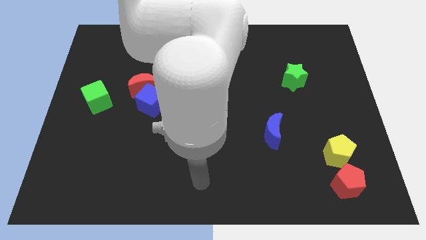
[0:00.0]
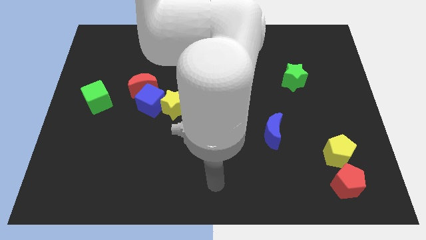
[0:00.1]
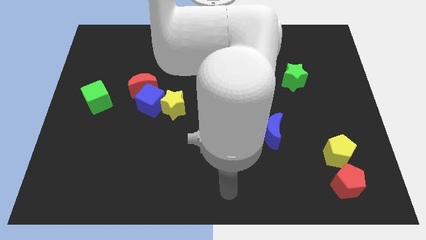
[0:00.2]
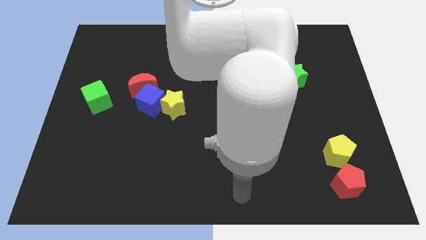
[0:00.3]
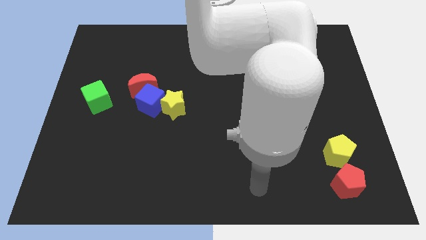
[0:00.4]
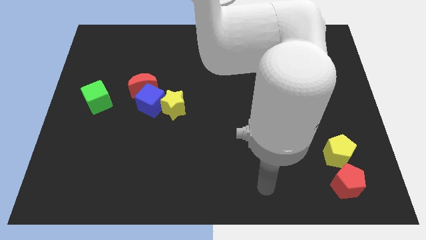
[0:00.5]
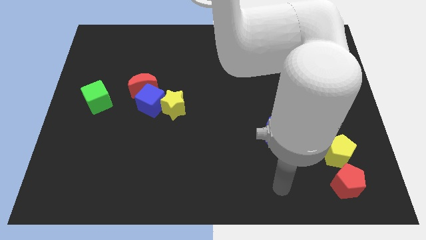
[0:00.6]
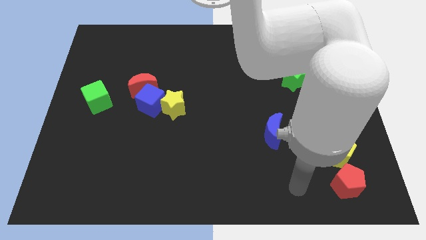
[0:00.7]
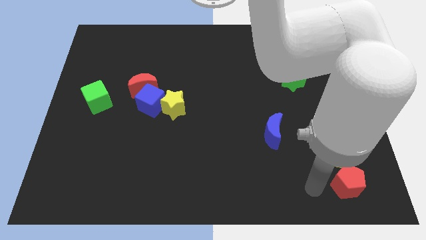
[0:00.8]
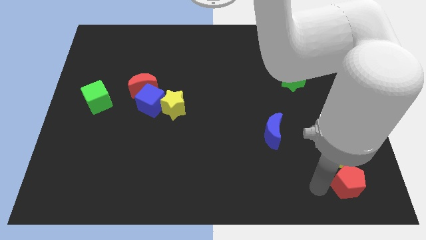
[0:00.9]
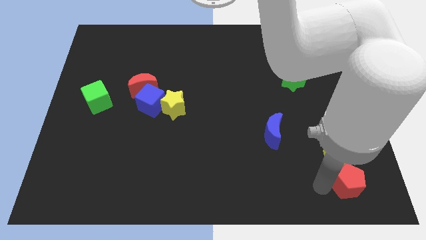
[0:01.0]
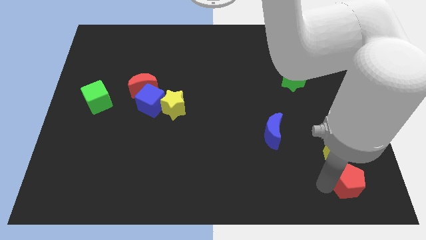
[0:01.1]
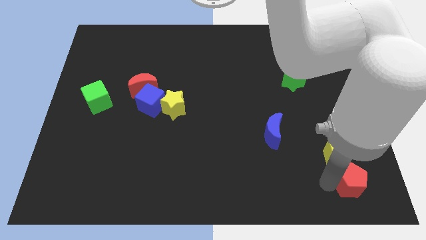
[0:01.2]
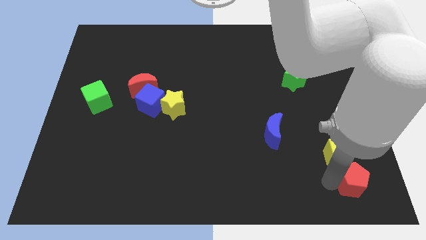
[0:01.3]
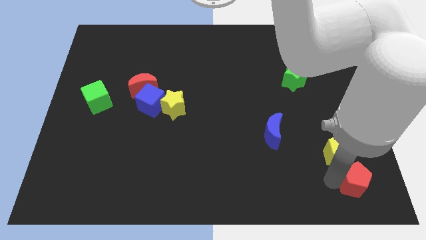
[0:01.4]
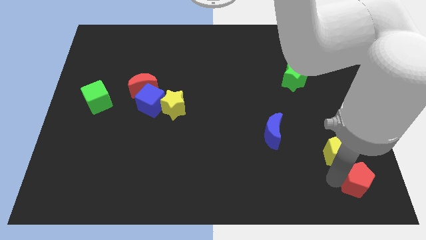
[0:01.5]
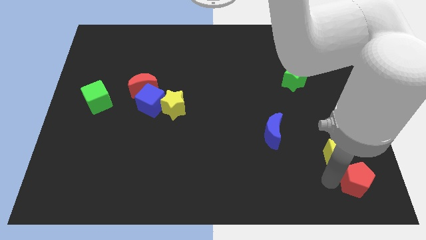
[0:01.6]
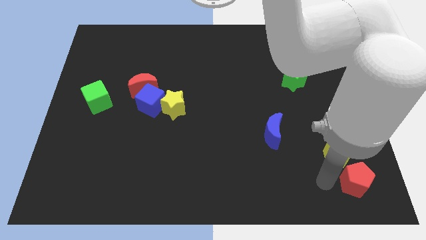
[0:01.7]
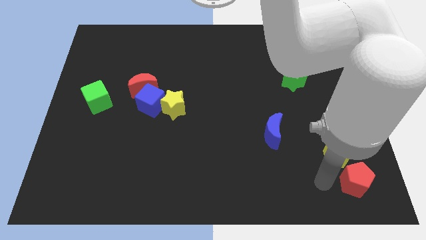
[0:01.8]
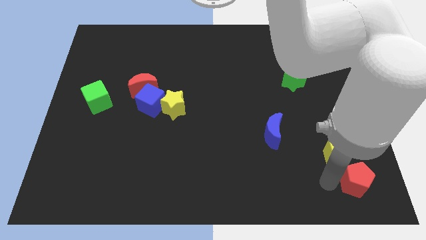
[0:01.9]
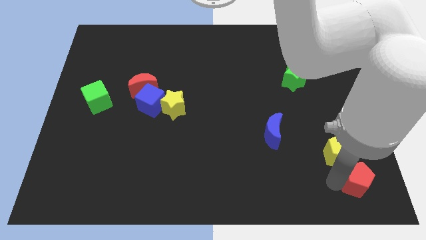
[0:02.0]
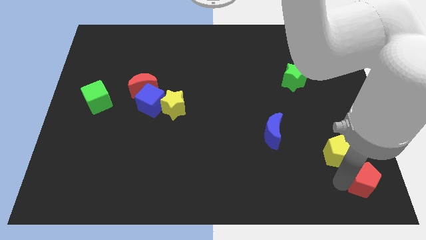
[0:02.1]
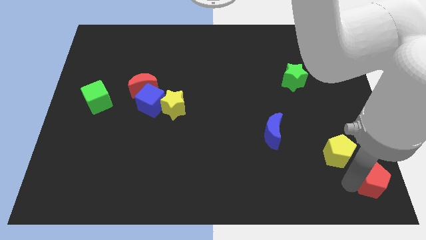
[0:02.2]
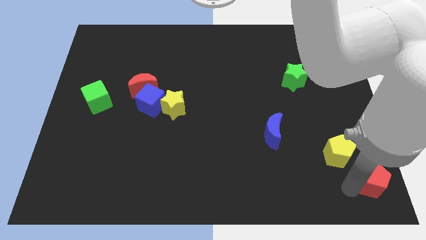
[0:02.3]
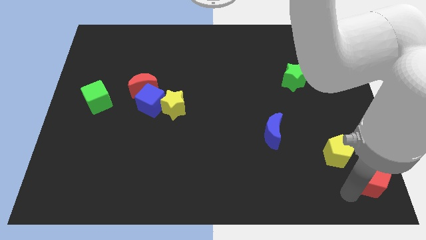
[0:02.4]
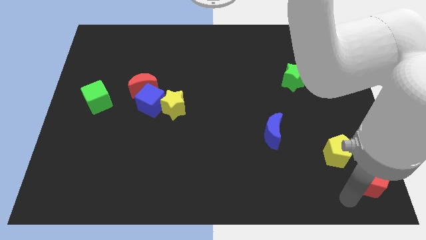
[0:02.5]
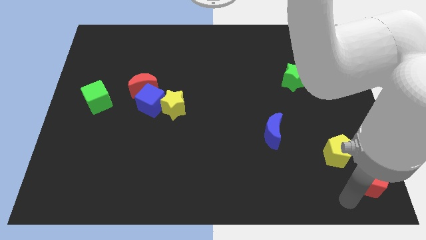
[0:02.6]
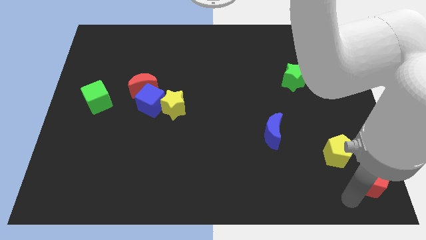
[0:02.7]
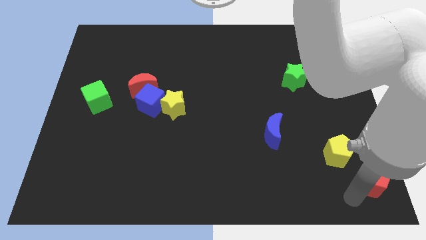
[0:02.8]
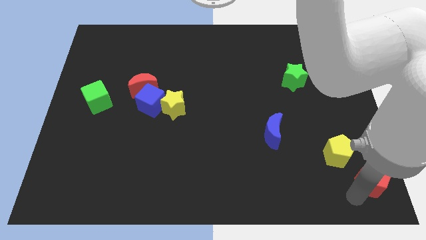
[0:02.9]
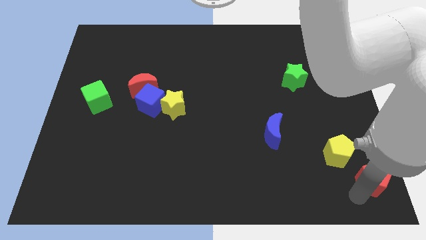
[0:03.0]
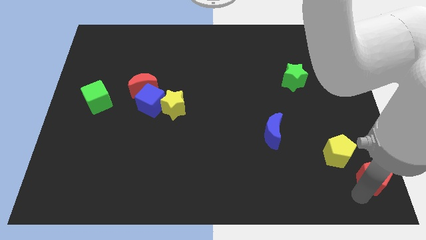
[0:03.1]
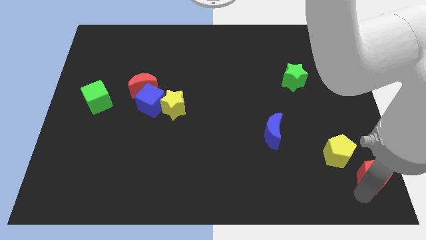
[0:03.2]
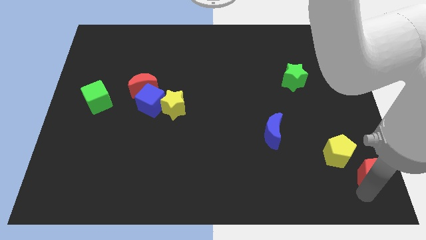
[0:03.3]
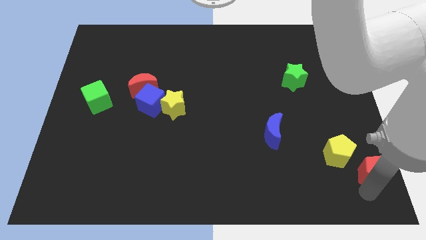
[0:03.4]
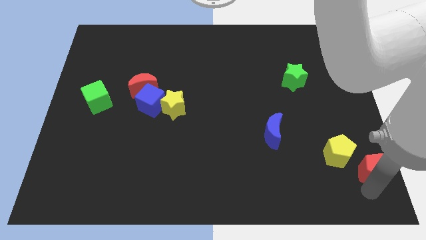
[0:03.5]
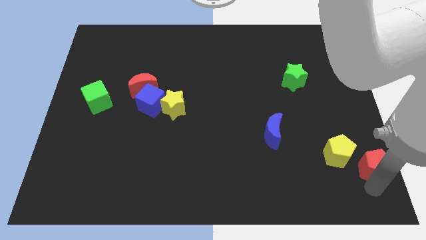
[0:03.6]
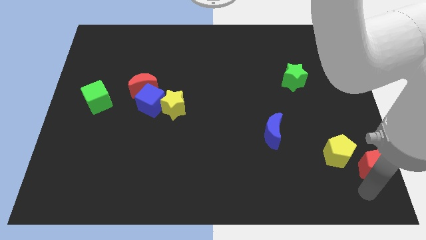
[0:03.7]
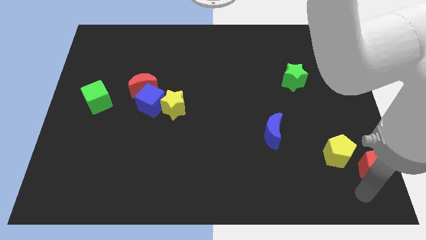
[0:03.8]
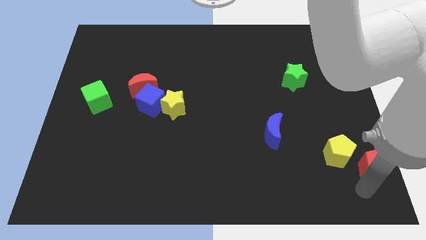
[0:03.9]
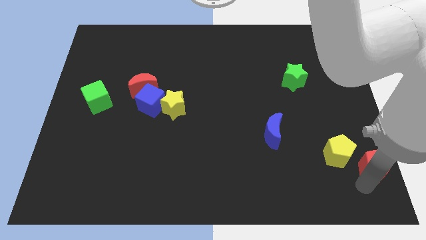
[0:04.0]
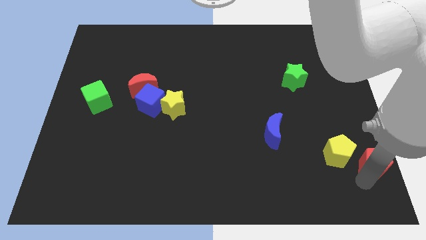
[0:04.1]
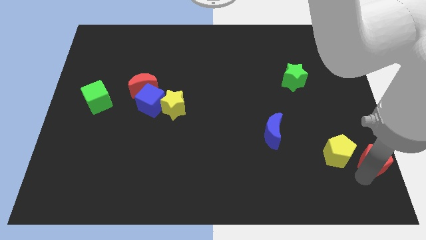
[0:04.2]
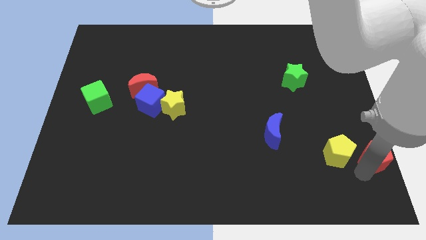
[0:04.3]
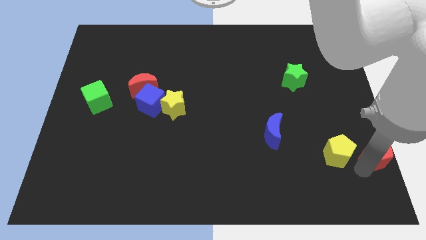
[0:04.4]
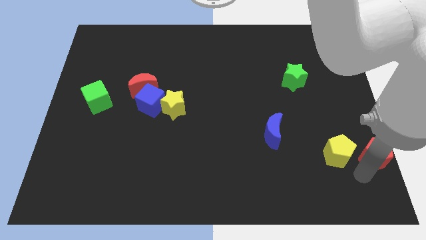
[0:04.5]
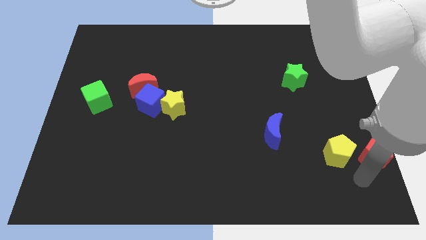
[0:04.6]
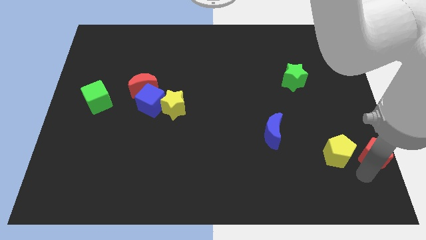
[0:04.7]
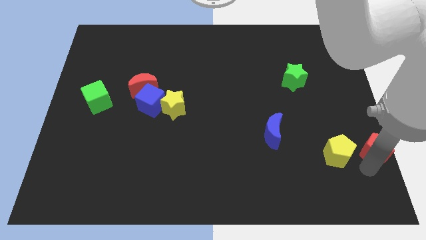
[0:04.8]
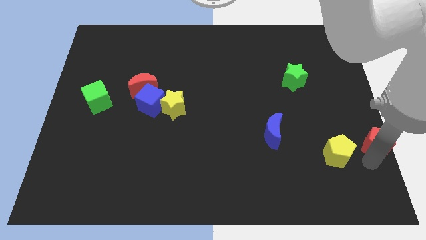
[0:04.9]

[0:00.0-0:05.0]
slide the red pentagon to the center right

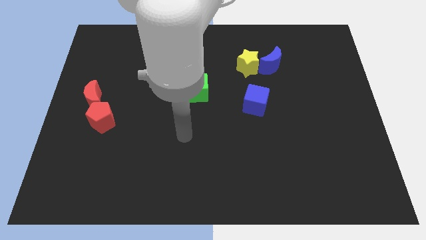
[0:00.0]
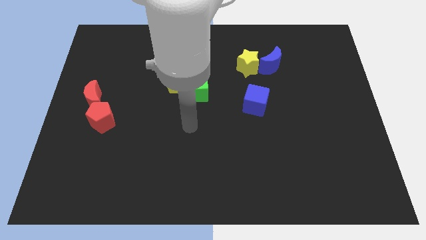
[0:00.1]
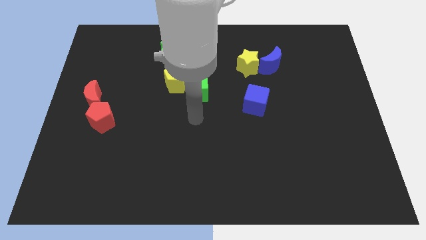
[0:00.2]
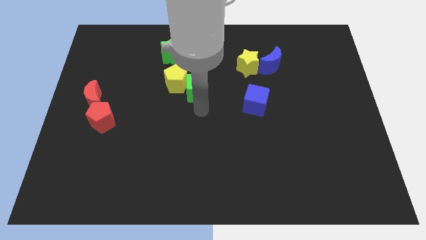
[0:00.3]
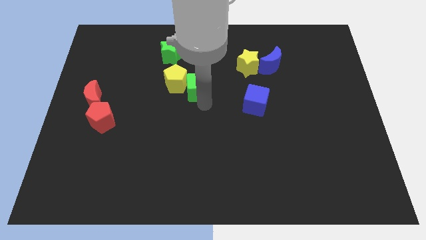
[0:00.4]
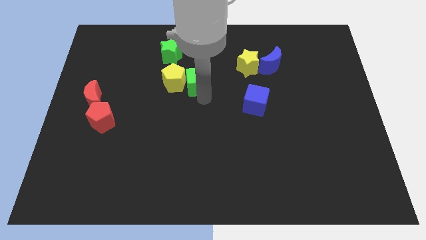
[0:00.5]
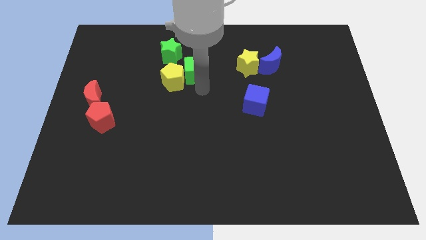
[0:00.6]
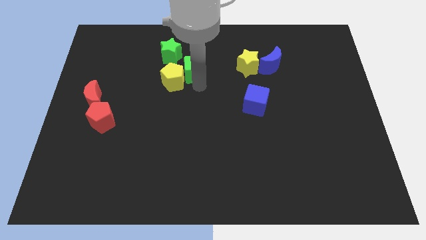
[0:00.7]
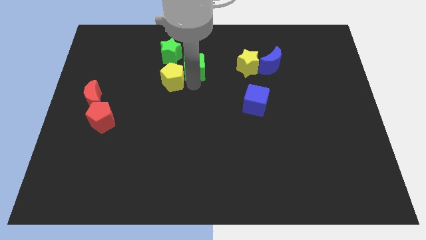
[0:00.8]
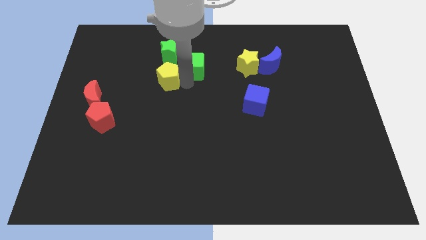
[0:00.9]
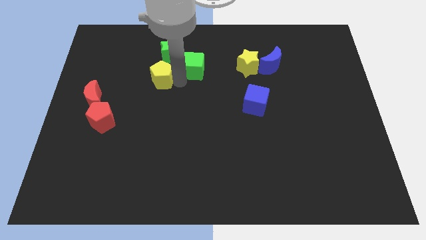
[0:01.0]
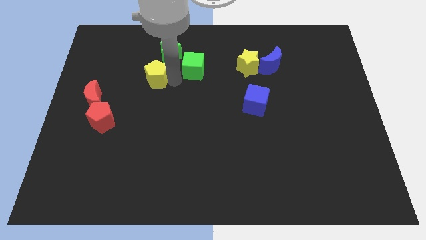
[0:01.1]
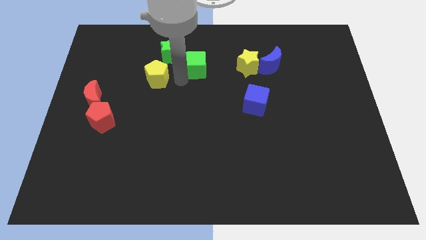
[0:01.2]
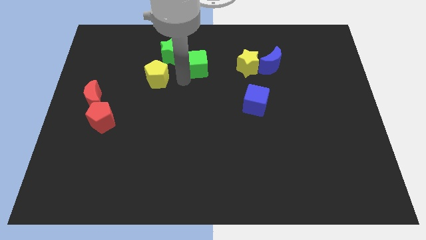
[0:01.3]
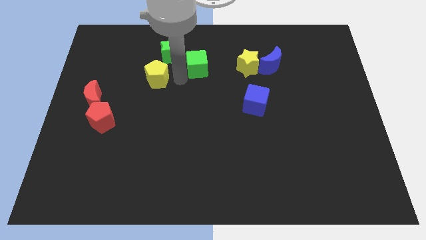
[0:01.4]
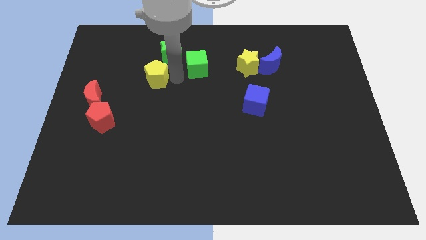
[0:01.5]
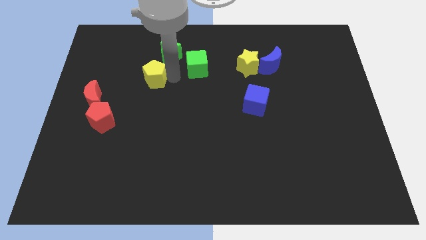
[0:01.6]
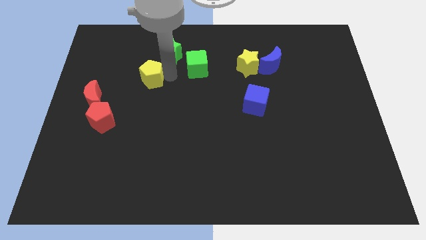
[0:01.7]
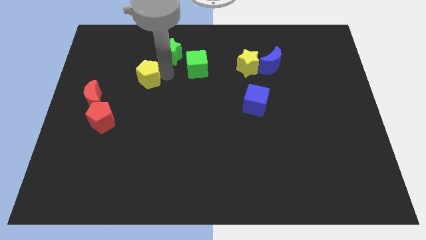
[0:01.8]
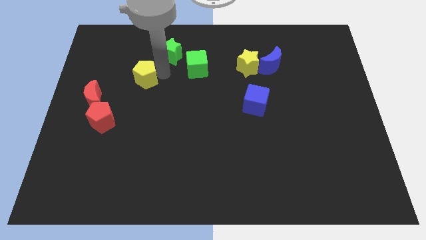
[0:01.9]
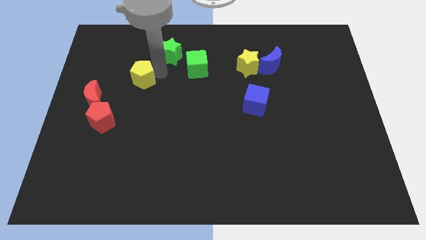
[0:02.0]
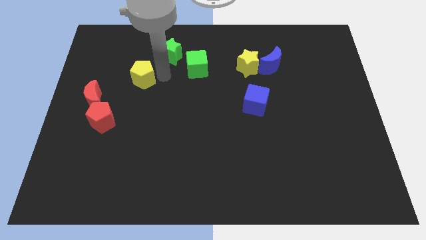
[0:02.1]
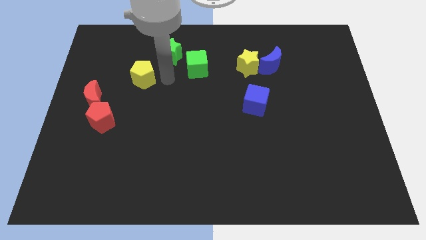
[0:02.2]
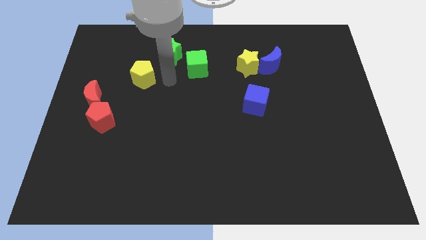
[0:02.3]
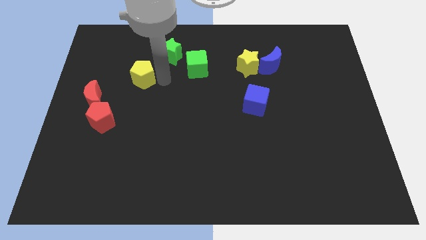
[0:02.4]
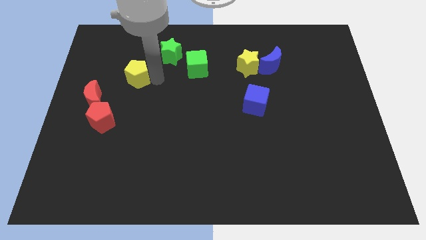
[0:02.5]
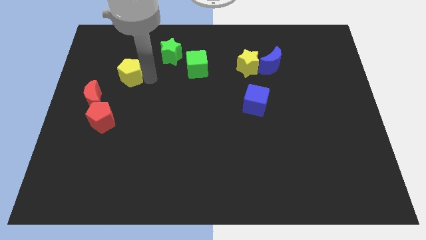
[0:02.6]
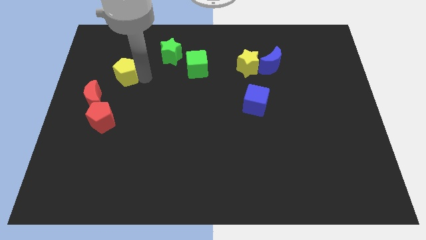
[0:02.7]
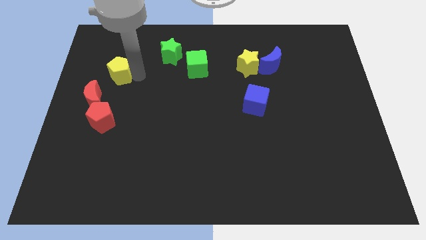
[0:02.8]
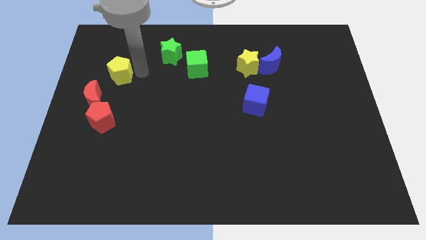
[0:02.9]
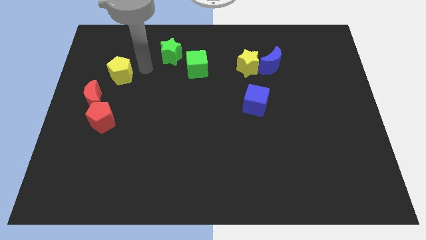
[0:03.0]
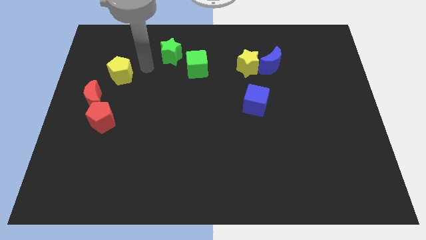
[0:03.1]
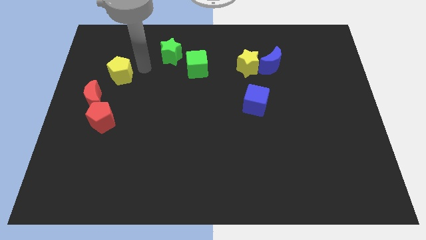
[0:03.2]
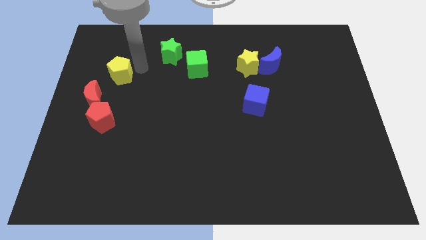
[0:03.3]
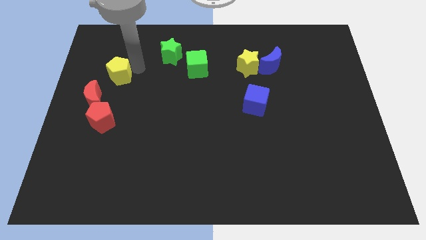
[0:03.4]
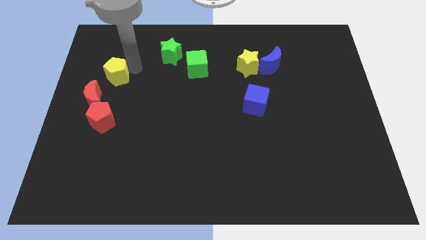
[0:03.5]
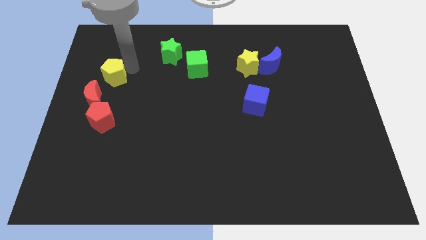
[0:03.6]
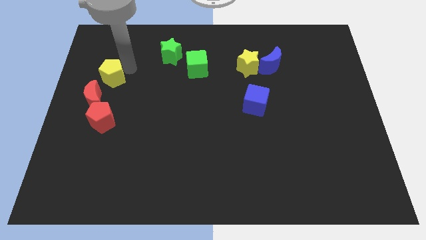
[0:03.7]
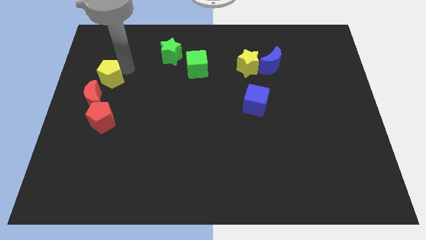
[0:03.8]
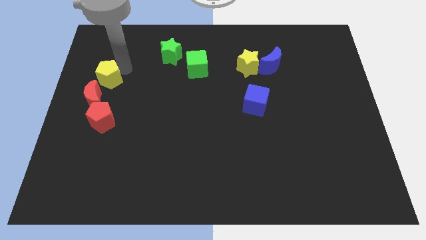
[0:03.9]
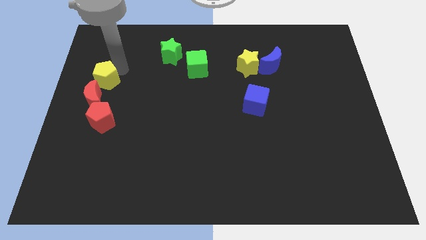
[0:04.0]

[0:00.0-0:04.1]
move the yellow pentagon to the left side of the board
